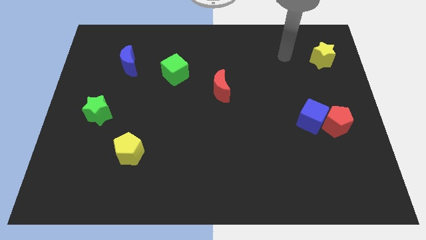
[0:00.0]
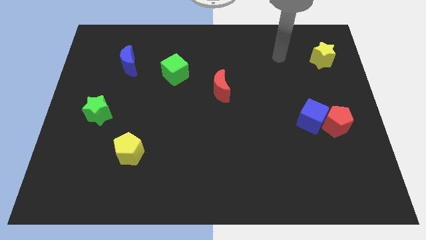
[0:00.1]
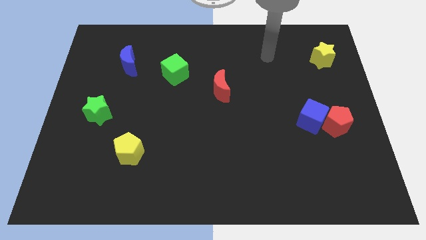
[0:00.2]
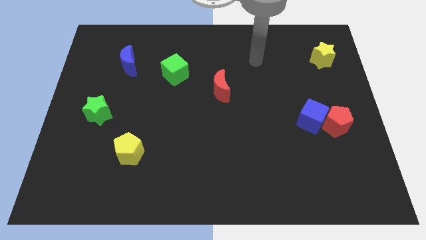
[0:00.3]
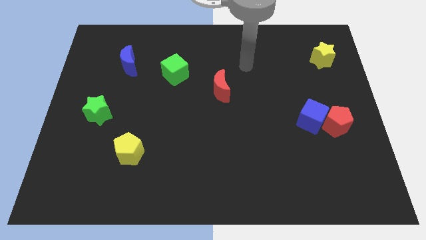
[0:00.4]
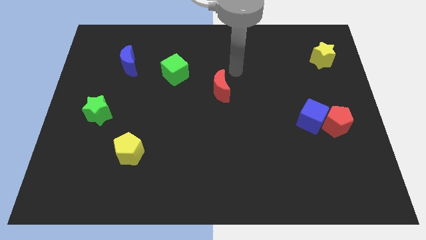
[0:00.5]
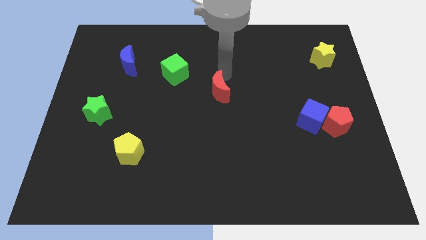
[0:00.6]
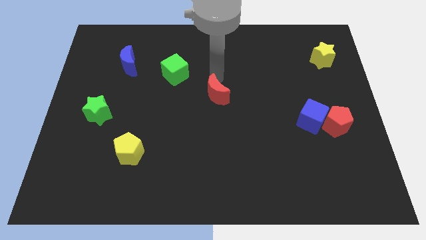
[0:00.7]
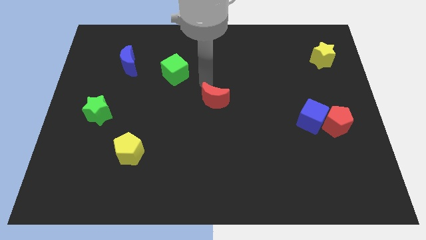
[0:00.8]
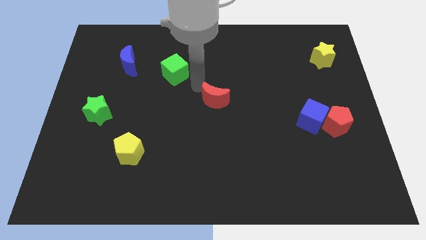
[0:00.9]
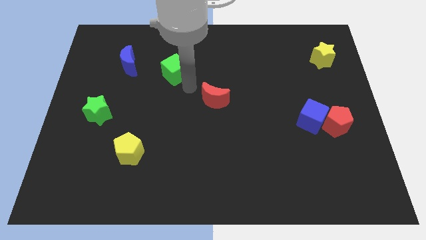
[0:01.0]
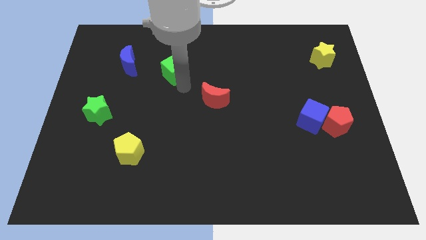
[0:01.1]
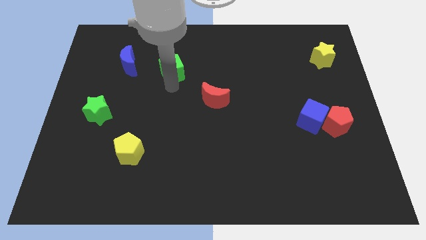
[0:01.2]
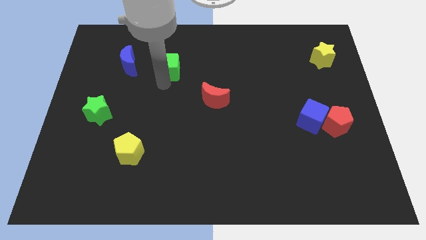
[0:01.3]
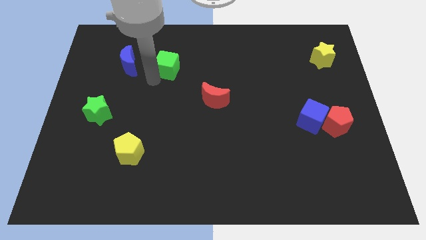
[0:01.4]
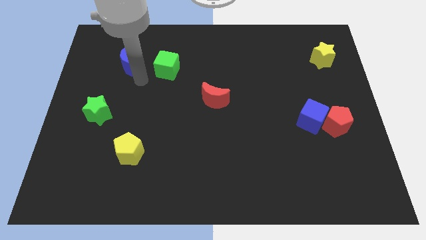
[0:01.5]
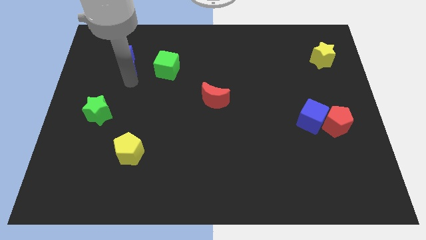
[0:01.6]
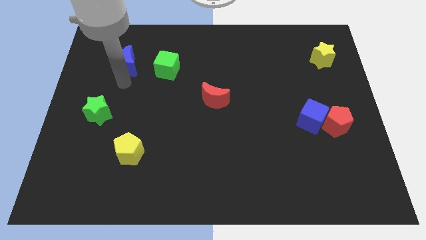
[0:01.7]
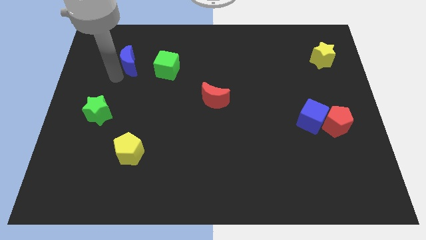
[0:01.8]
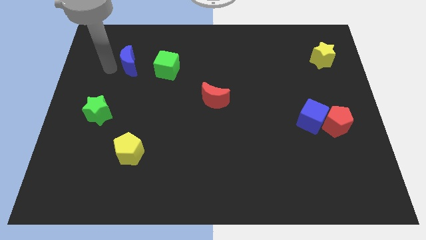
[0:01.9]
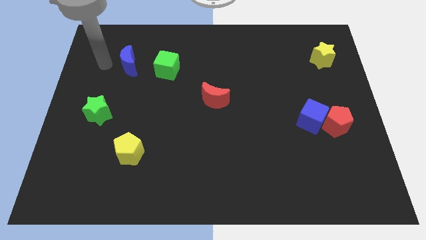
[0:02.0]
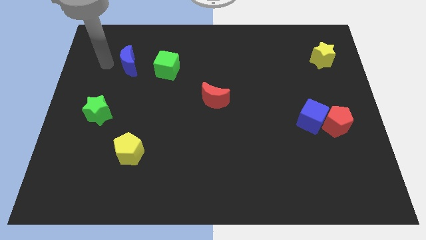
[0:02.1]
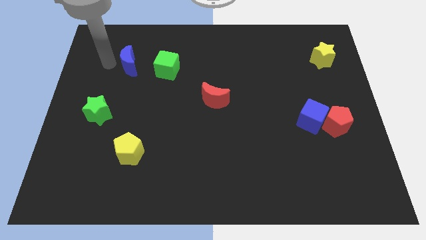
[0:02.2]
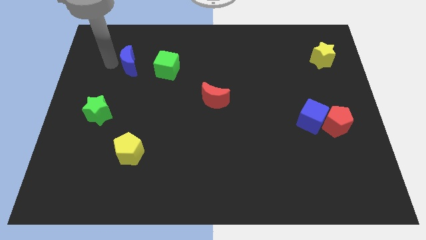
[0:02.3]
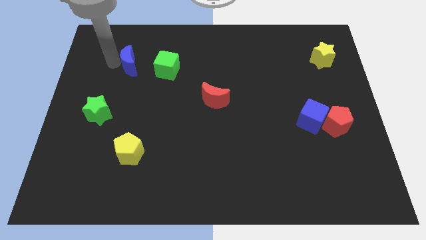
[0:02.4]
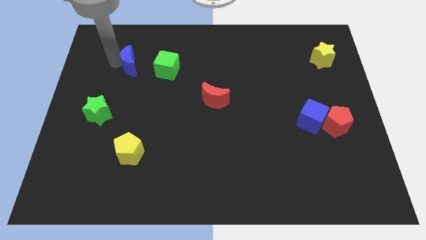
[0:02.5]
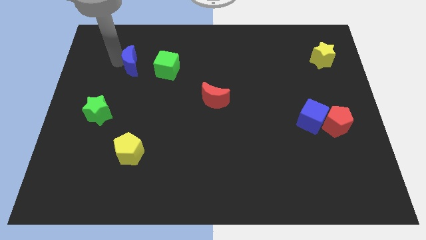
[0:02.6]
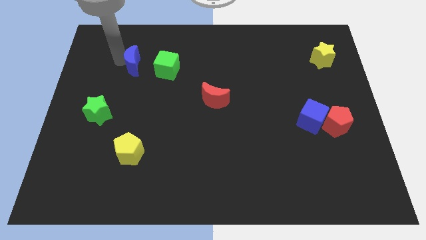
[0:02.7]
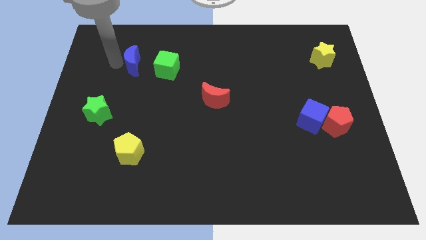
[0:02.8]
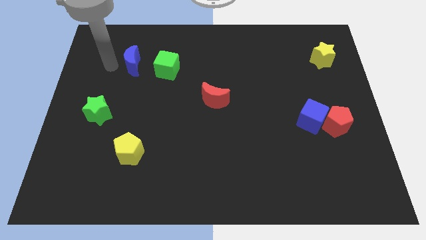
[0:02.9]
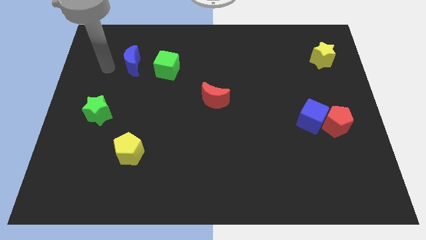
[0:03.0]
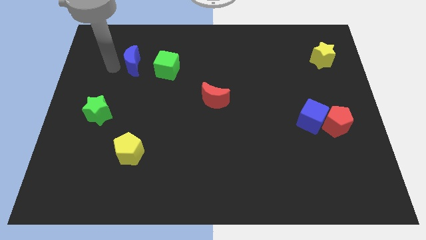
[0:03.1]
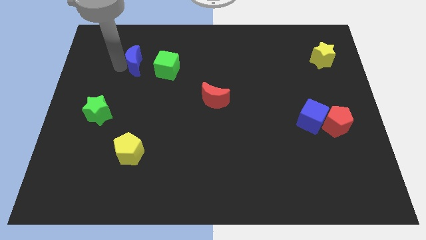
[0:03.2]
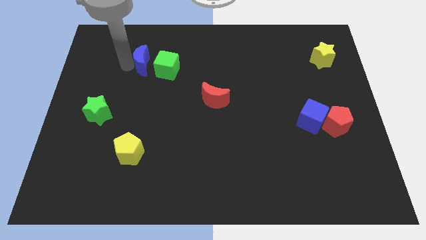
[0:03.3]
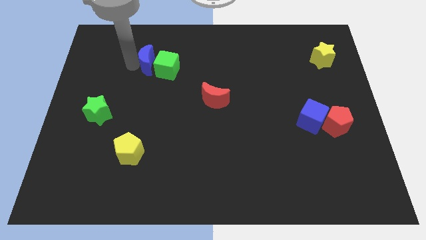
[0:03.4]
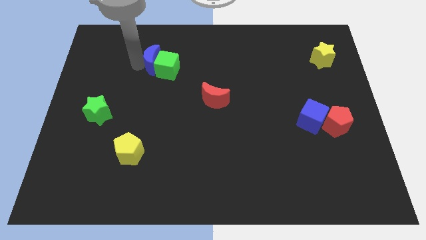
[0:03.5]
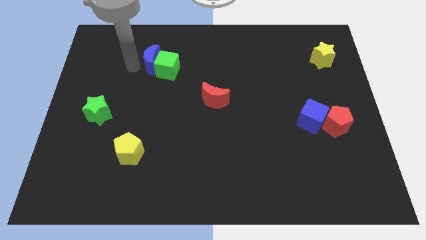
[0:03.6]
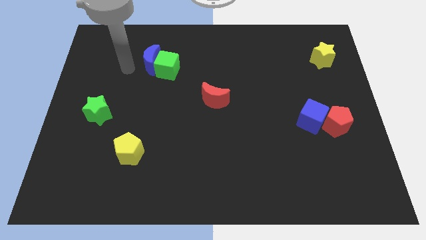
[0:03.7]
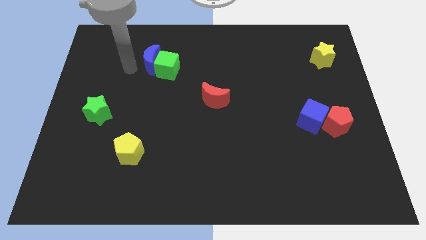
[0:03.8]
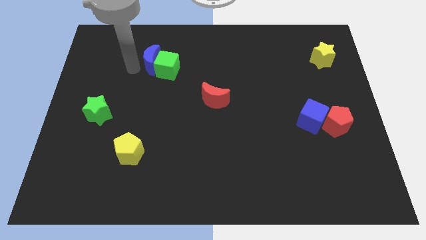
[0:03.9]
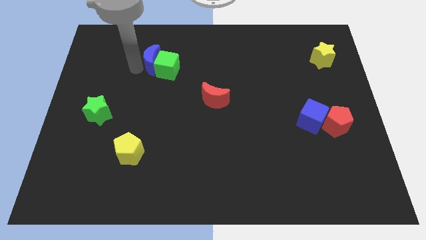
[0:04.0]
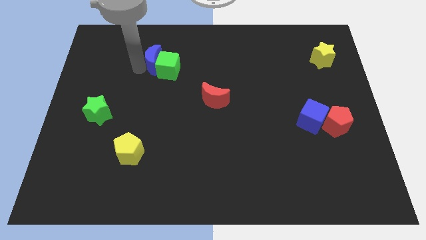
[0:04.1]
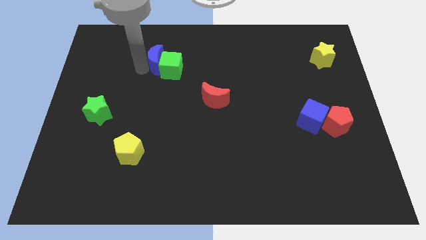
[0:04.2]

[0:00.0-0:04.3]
slide the blue moon right a little

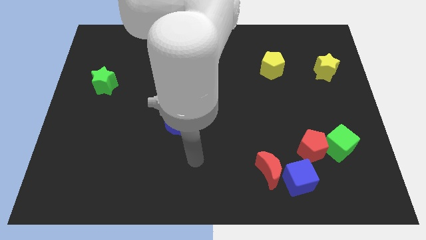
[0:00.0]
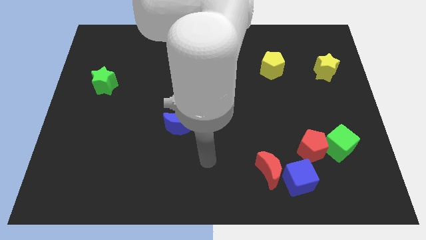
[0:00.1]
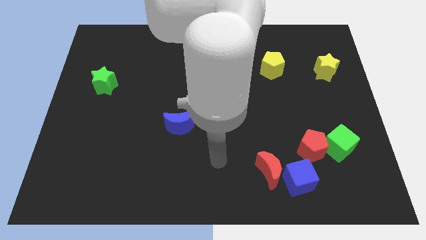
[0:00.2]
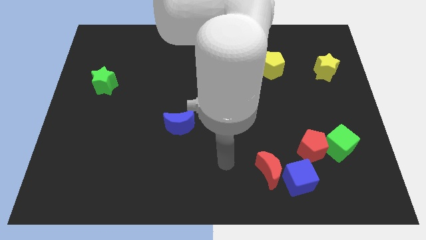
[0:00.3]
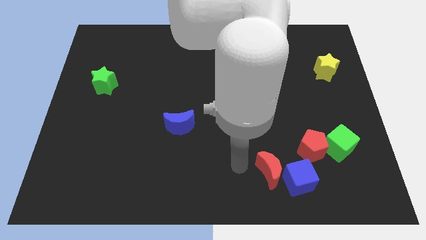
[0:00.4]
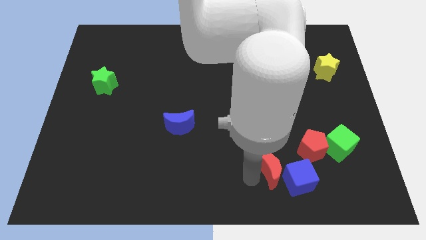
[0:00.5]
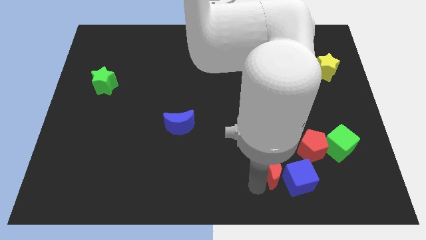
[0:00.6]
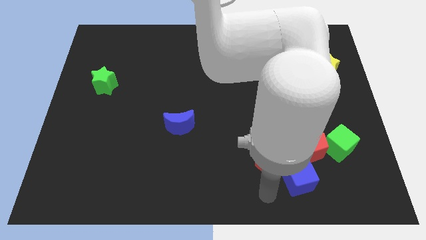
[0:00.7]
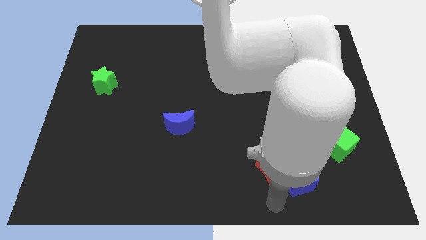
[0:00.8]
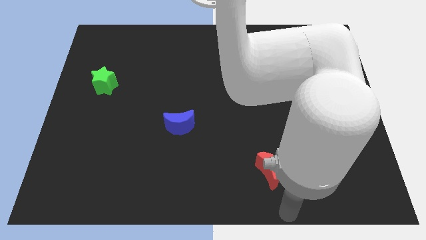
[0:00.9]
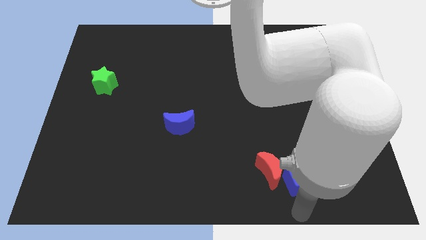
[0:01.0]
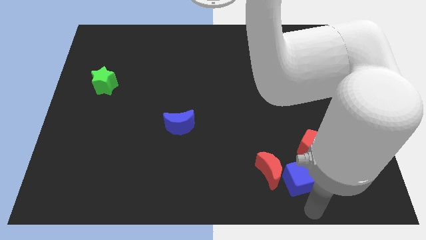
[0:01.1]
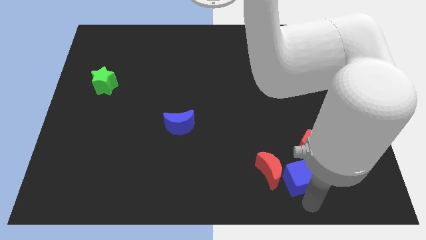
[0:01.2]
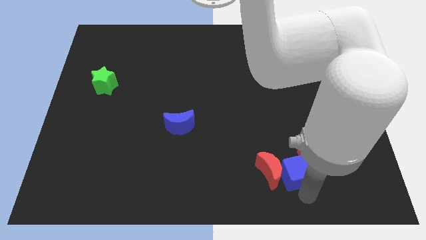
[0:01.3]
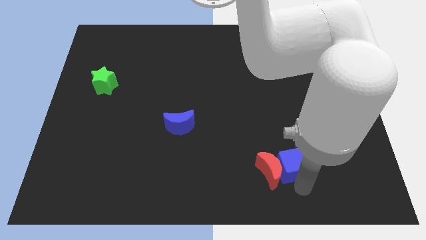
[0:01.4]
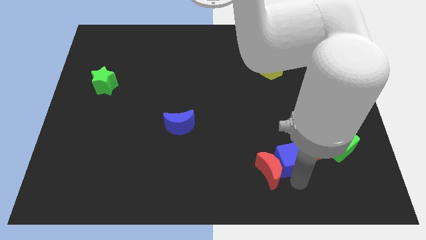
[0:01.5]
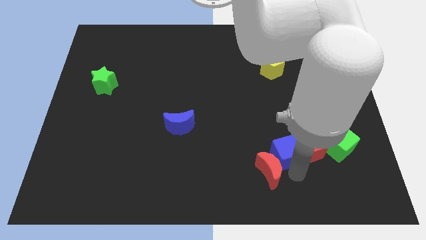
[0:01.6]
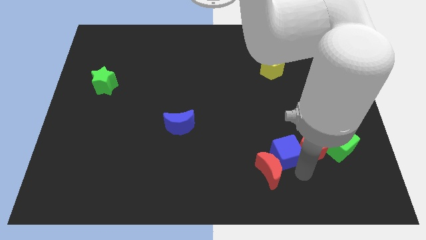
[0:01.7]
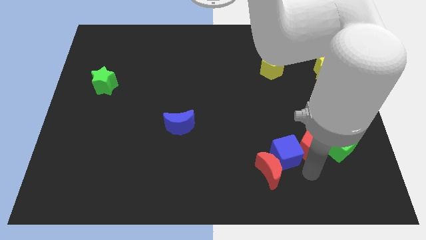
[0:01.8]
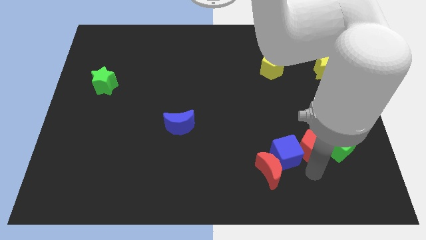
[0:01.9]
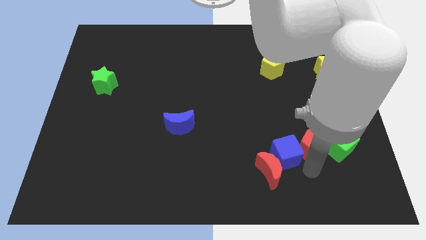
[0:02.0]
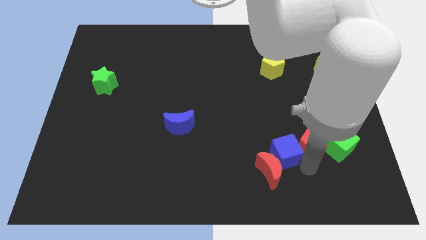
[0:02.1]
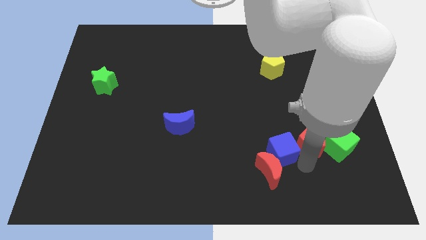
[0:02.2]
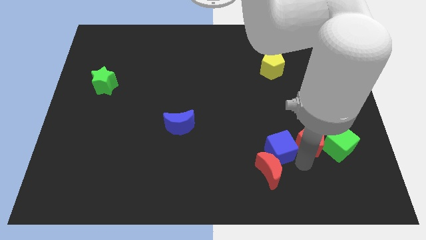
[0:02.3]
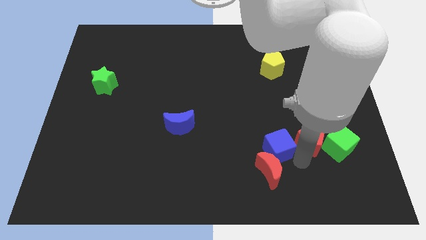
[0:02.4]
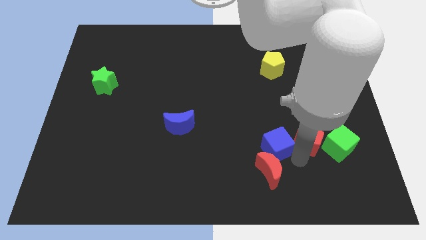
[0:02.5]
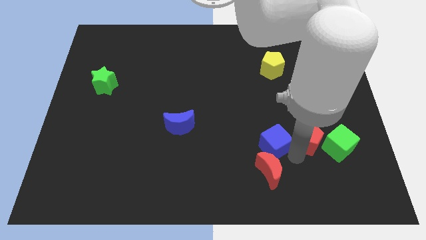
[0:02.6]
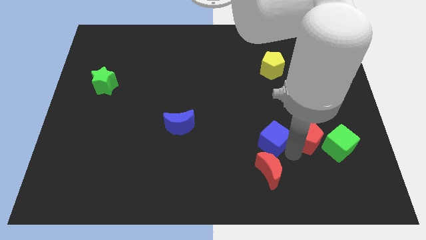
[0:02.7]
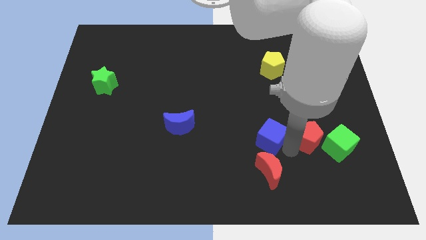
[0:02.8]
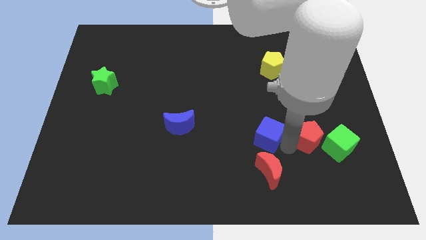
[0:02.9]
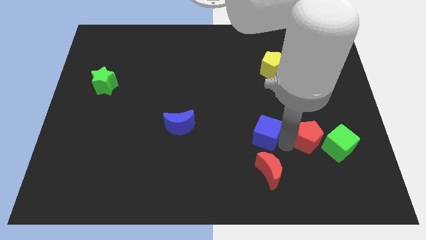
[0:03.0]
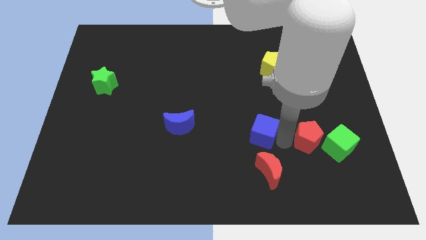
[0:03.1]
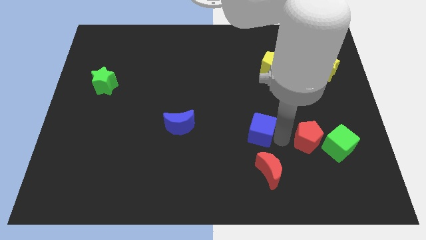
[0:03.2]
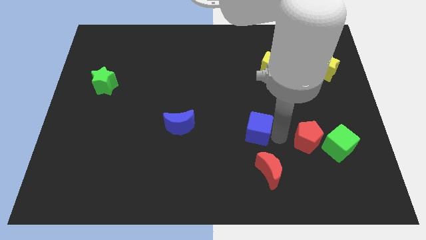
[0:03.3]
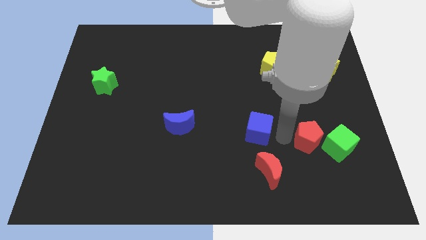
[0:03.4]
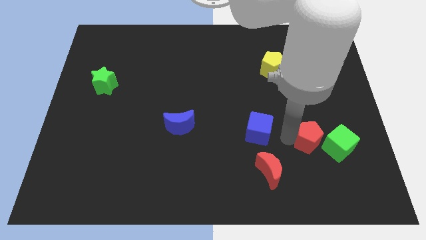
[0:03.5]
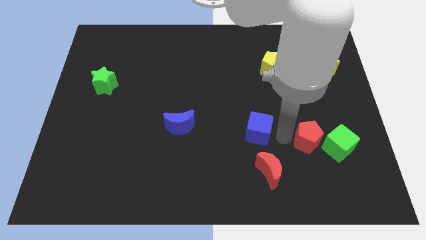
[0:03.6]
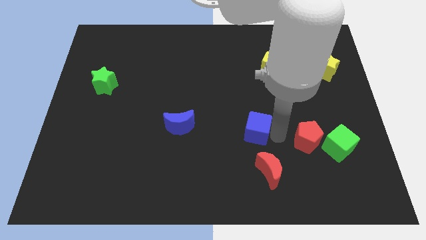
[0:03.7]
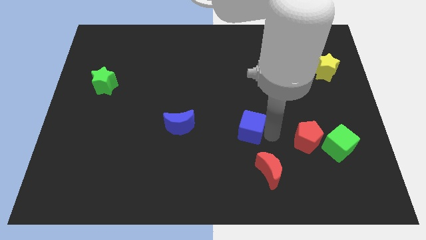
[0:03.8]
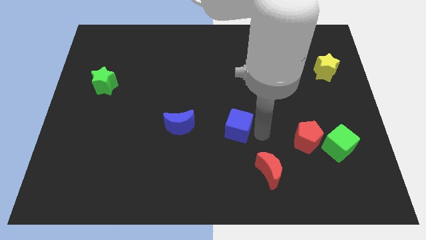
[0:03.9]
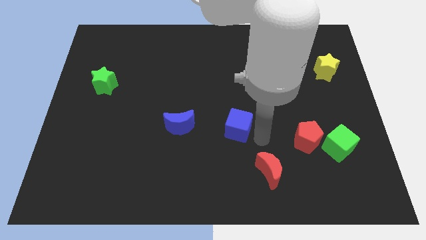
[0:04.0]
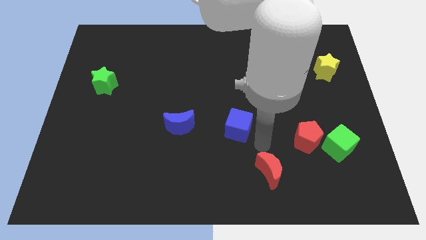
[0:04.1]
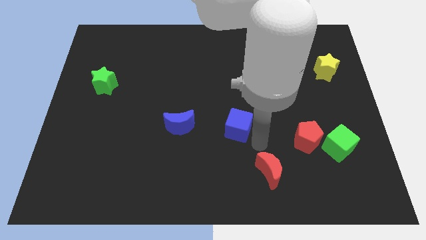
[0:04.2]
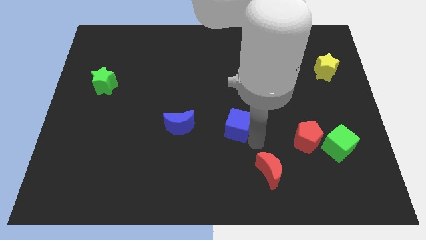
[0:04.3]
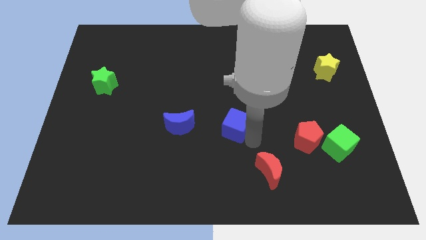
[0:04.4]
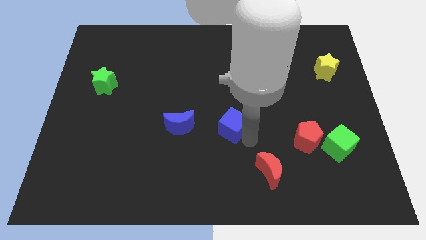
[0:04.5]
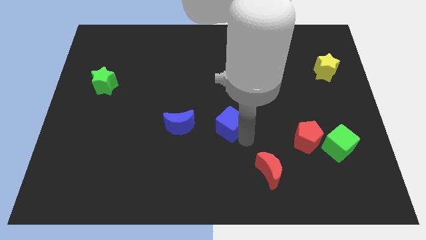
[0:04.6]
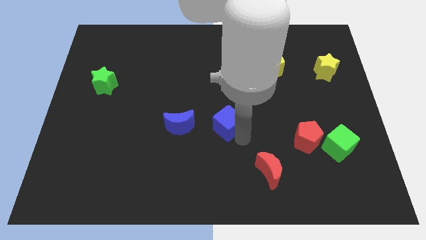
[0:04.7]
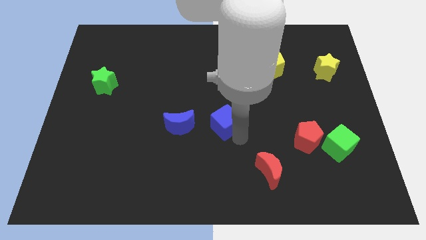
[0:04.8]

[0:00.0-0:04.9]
push the blue cube diagonally up and to the left
